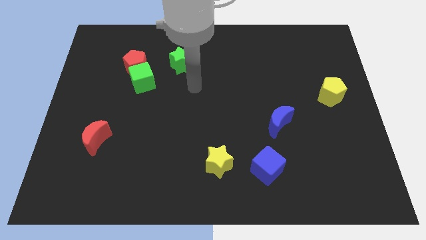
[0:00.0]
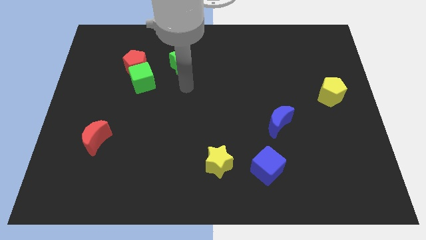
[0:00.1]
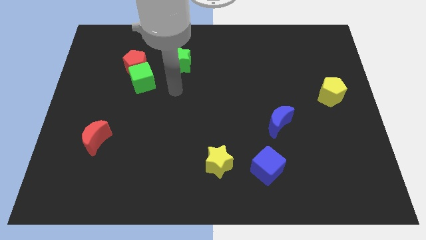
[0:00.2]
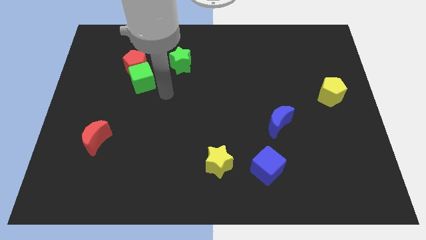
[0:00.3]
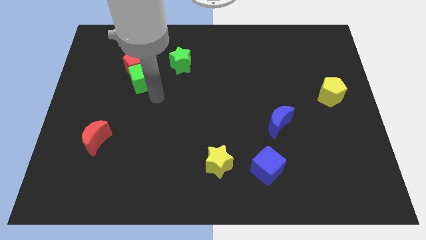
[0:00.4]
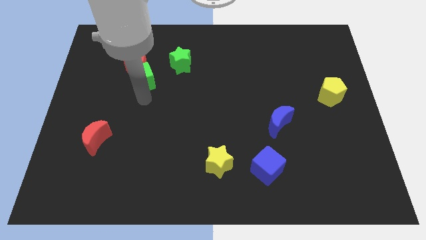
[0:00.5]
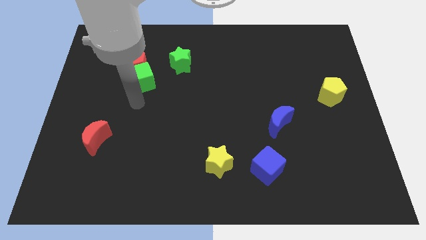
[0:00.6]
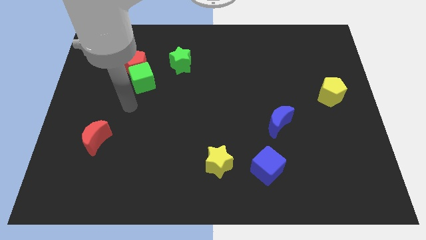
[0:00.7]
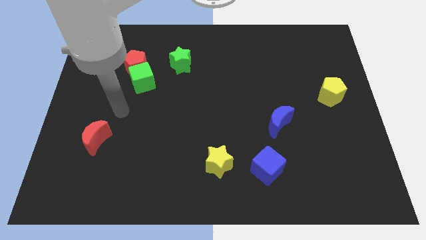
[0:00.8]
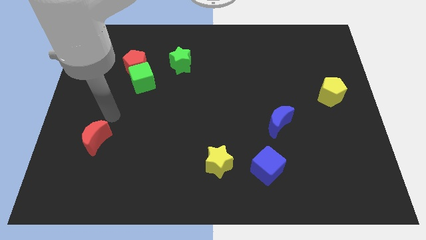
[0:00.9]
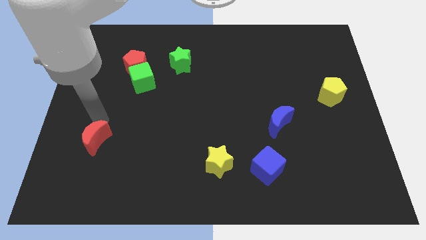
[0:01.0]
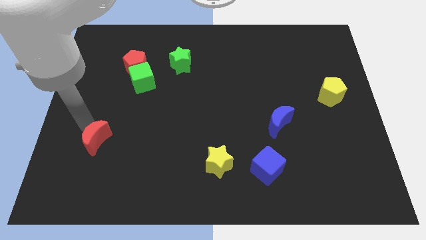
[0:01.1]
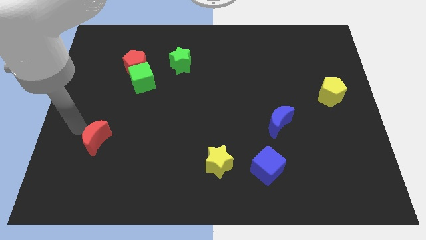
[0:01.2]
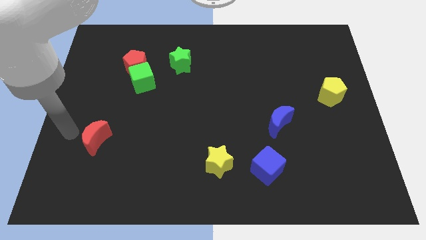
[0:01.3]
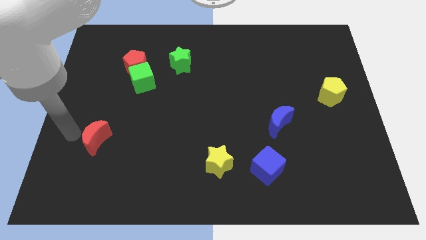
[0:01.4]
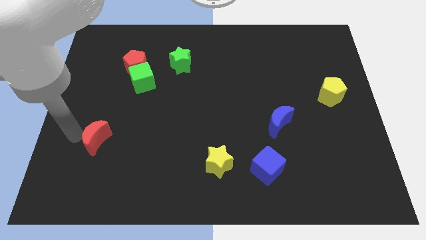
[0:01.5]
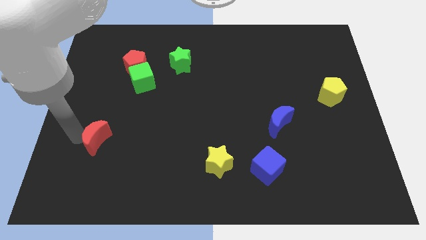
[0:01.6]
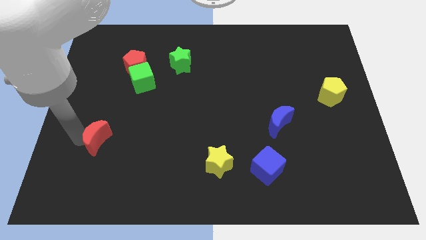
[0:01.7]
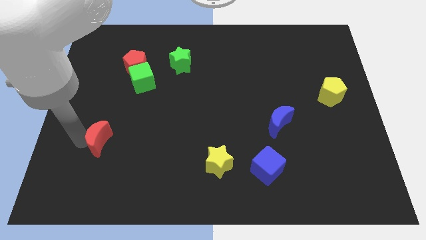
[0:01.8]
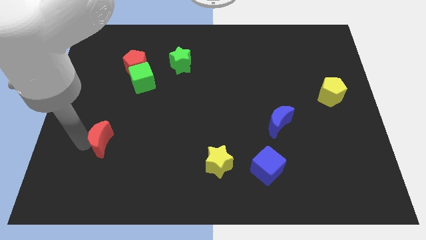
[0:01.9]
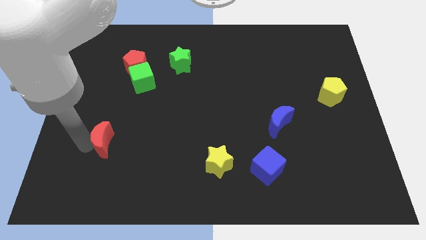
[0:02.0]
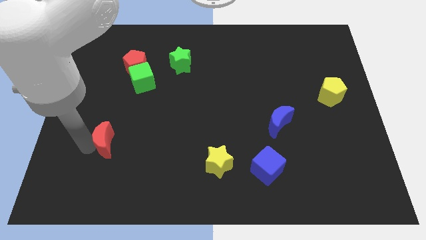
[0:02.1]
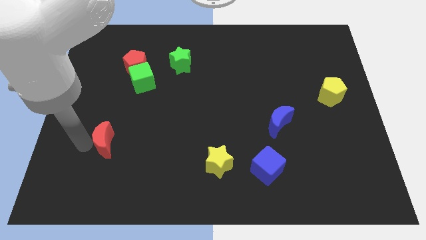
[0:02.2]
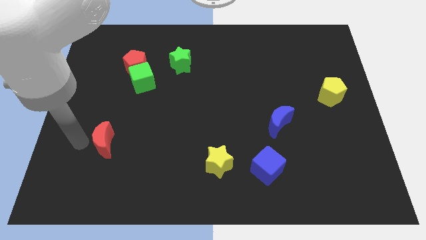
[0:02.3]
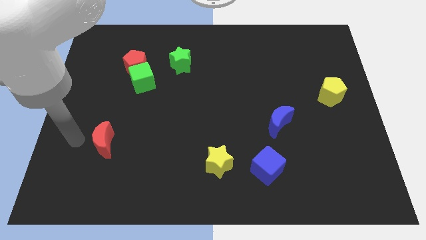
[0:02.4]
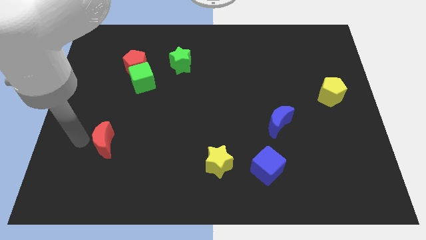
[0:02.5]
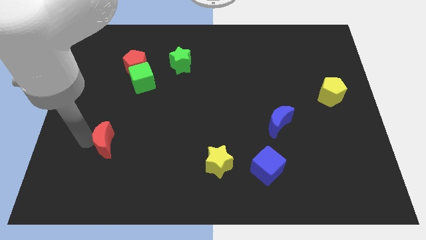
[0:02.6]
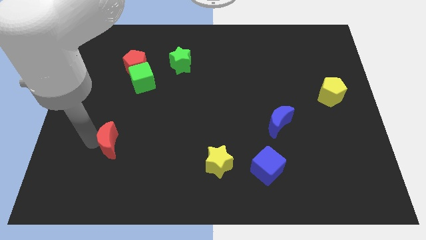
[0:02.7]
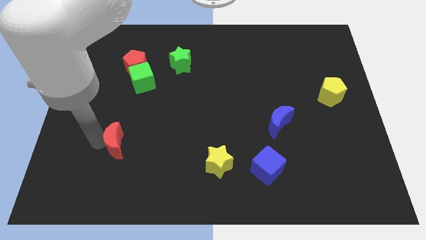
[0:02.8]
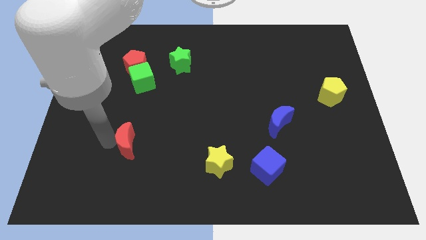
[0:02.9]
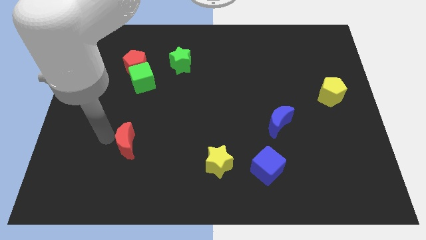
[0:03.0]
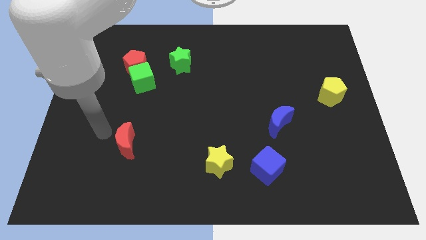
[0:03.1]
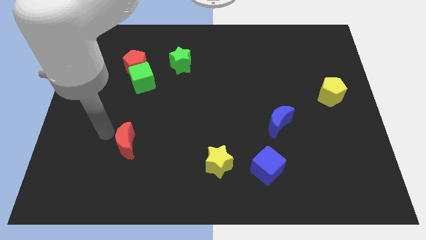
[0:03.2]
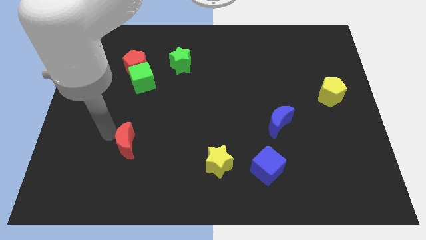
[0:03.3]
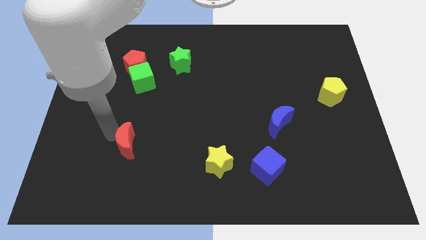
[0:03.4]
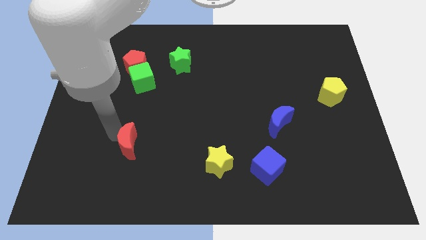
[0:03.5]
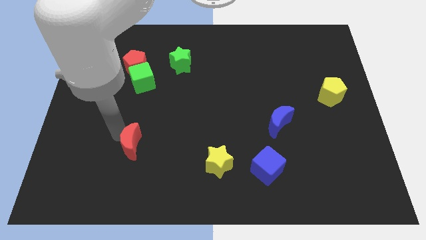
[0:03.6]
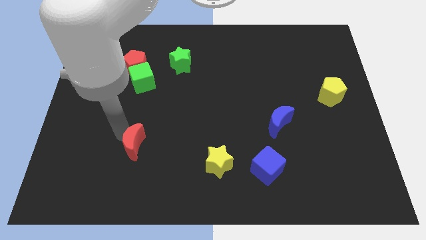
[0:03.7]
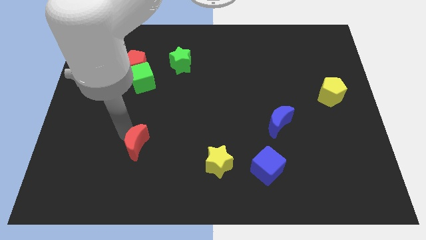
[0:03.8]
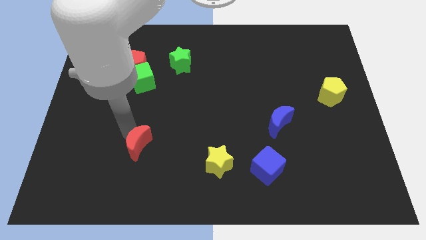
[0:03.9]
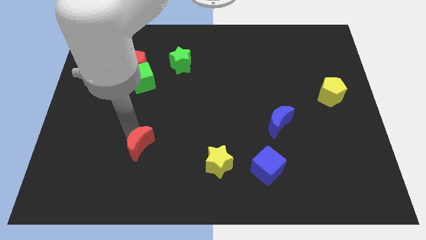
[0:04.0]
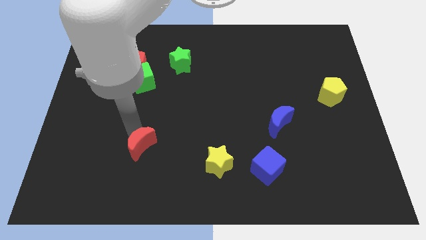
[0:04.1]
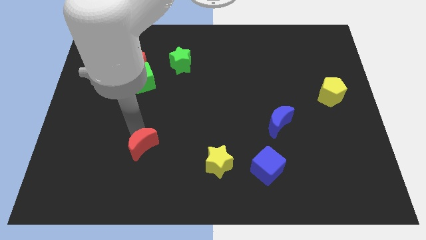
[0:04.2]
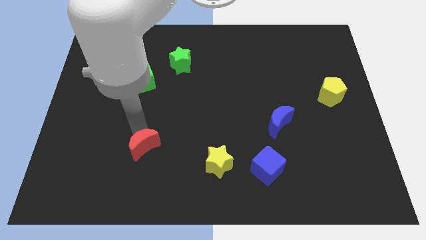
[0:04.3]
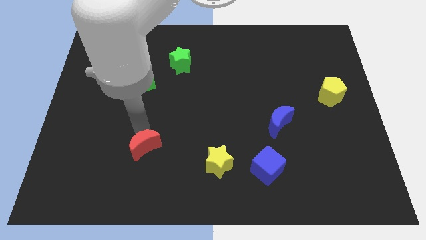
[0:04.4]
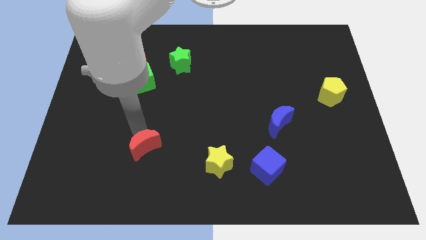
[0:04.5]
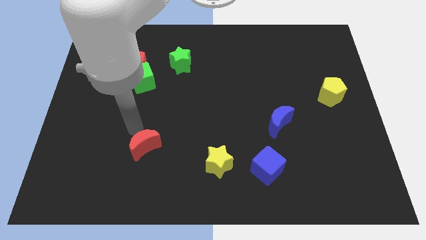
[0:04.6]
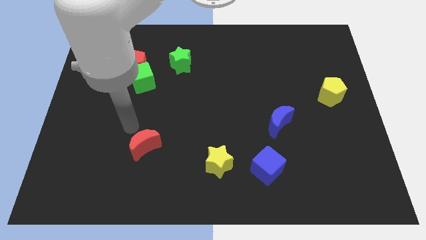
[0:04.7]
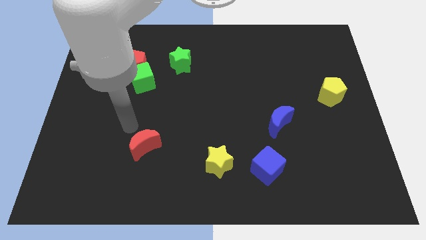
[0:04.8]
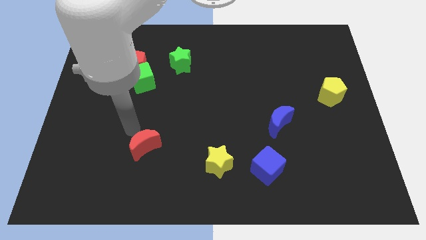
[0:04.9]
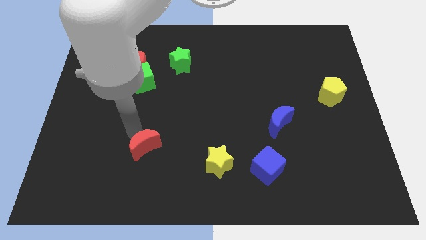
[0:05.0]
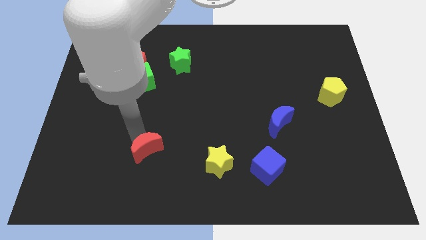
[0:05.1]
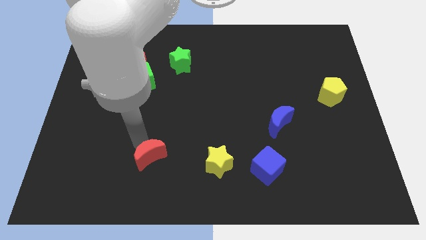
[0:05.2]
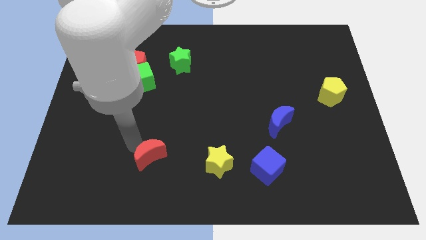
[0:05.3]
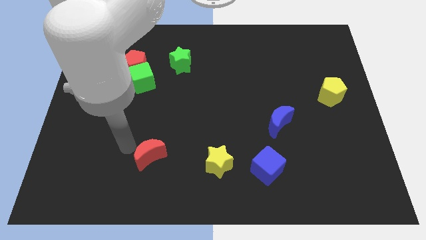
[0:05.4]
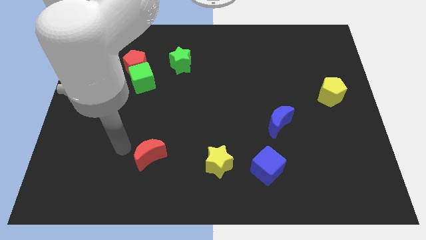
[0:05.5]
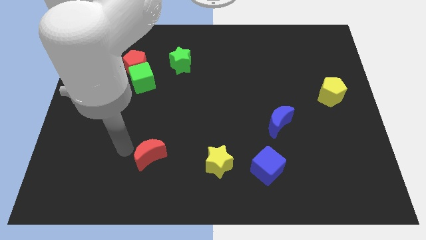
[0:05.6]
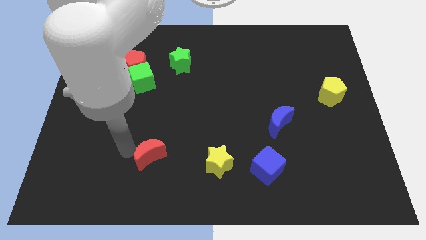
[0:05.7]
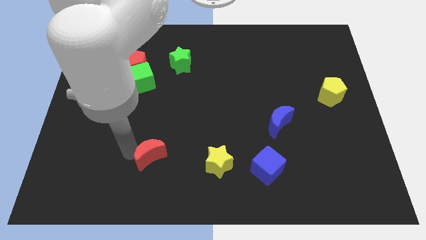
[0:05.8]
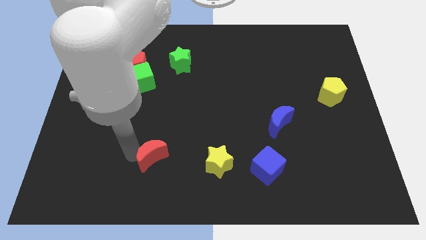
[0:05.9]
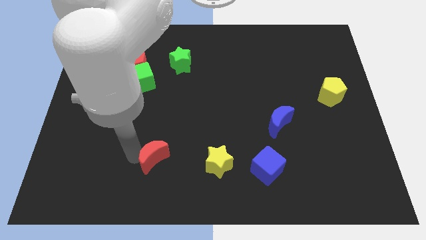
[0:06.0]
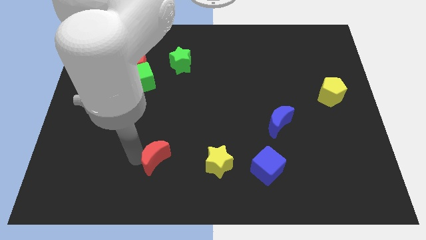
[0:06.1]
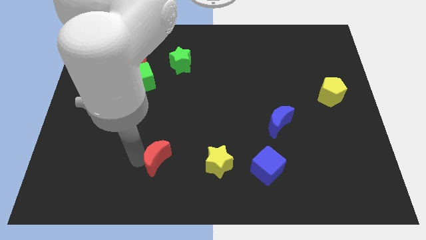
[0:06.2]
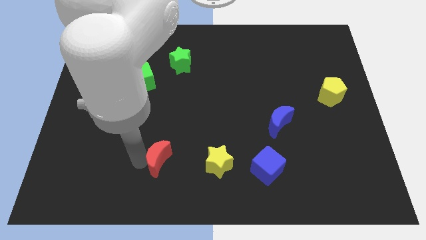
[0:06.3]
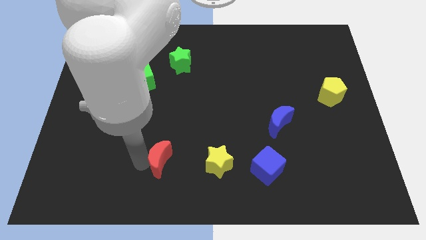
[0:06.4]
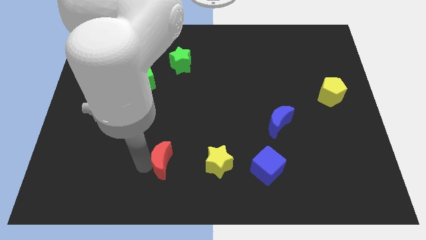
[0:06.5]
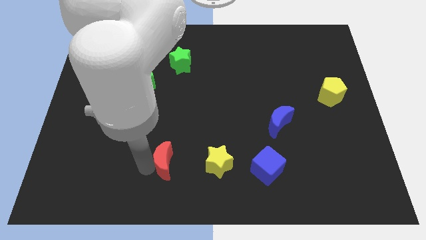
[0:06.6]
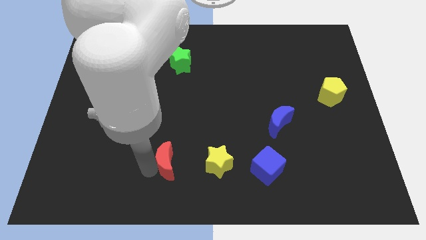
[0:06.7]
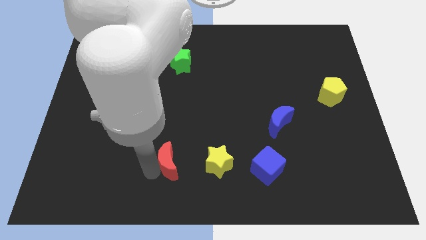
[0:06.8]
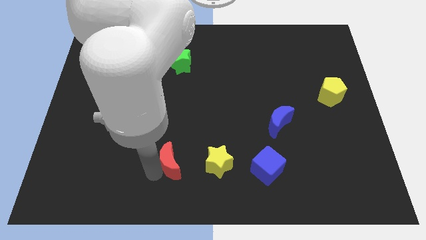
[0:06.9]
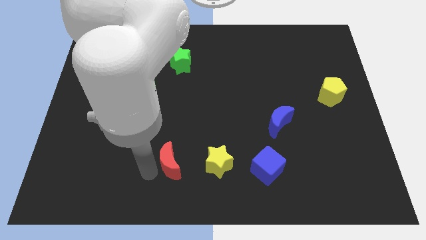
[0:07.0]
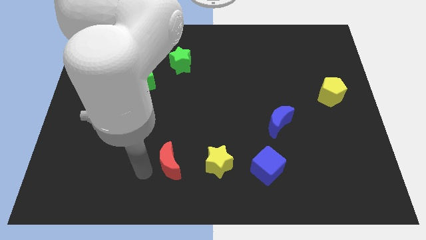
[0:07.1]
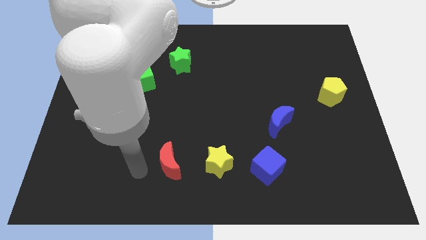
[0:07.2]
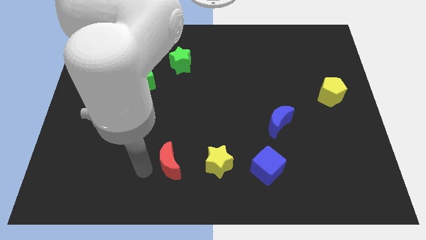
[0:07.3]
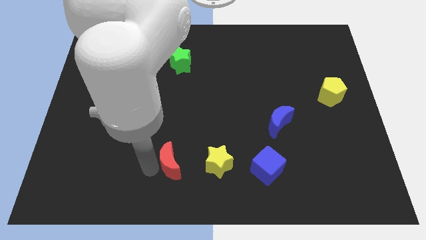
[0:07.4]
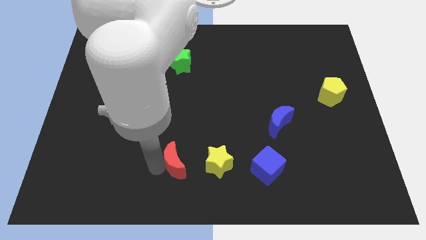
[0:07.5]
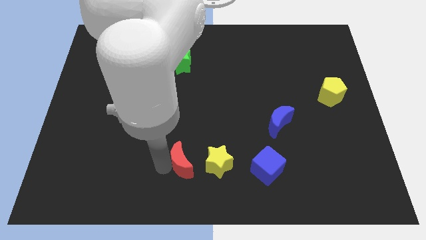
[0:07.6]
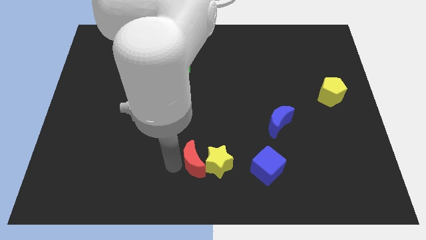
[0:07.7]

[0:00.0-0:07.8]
slide the red moon to the yellow star
